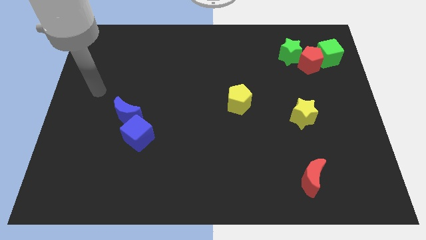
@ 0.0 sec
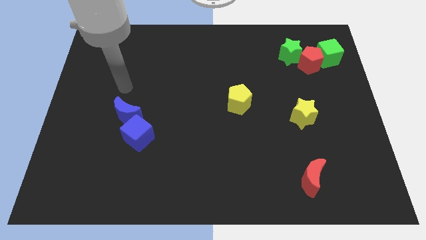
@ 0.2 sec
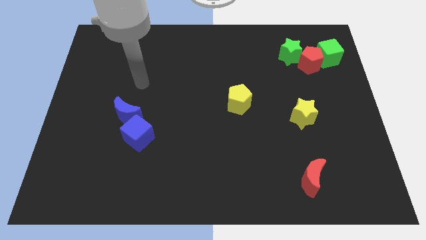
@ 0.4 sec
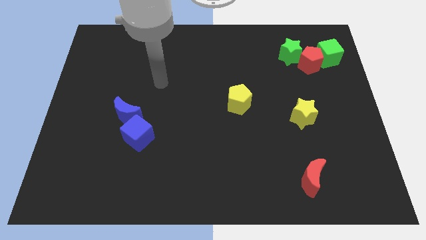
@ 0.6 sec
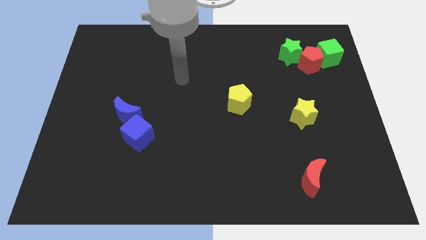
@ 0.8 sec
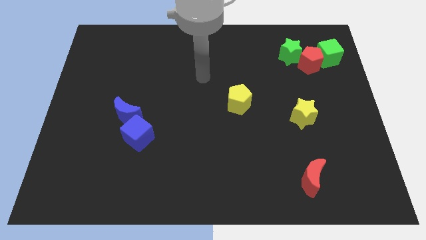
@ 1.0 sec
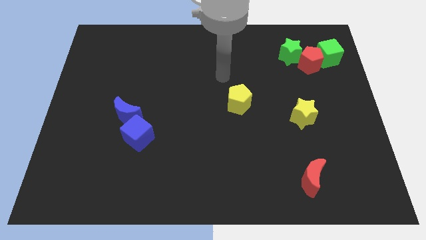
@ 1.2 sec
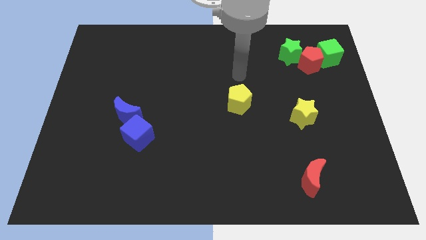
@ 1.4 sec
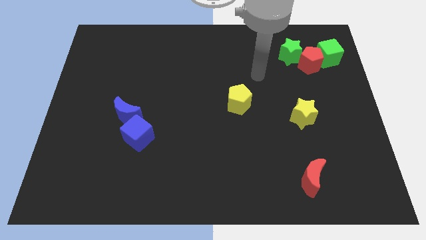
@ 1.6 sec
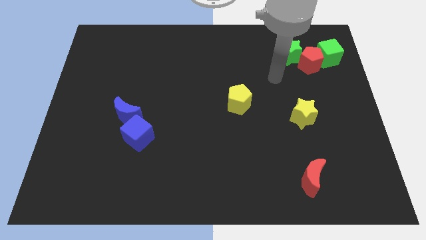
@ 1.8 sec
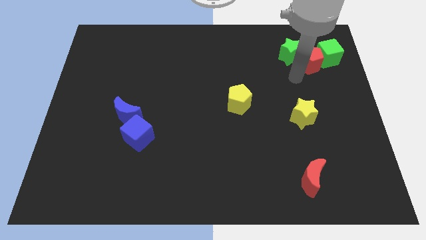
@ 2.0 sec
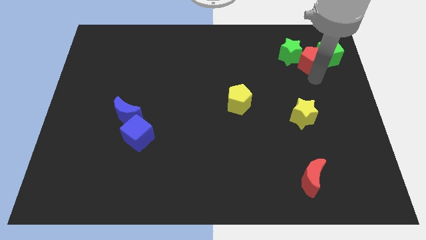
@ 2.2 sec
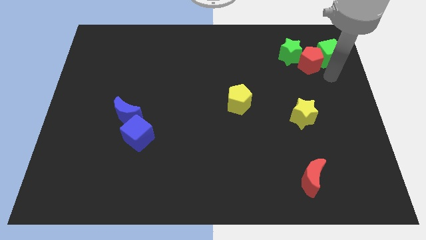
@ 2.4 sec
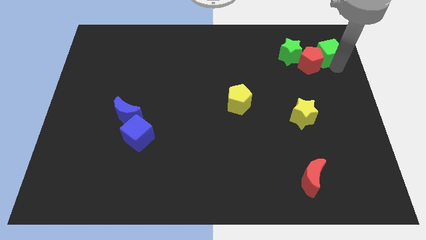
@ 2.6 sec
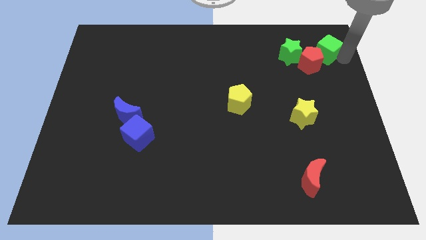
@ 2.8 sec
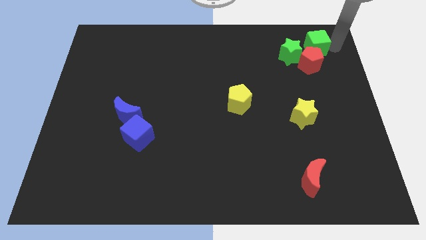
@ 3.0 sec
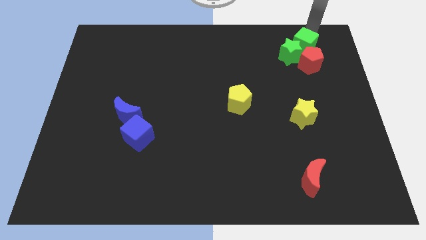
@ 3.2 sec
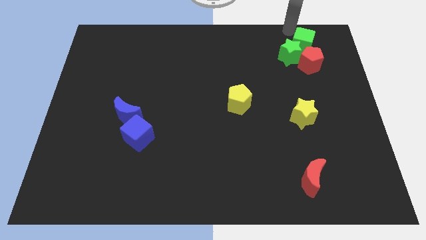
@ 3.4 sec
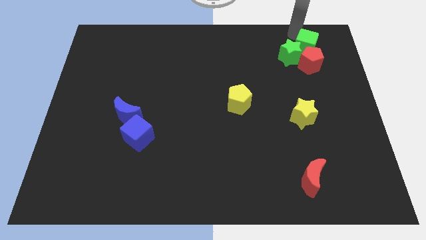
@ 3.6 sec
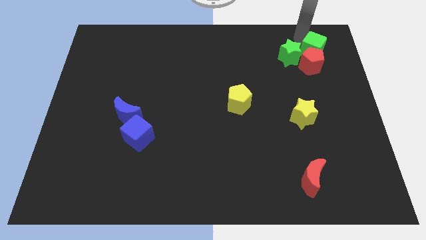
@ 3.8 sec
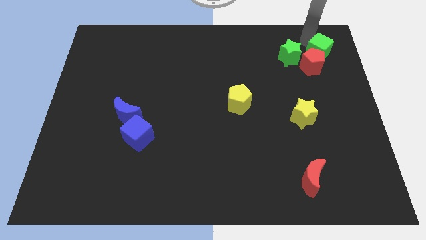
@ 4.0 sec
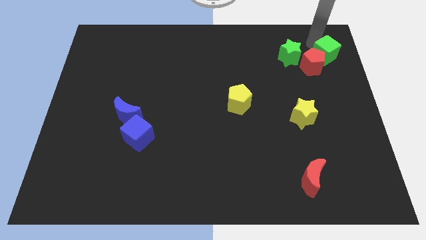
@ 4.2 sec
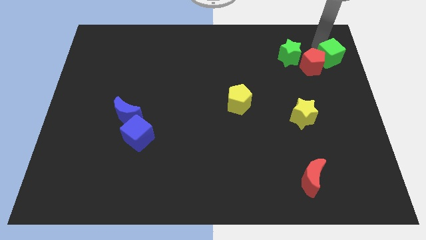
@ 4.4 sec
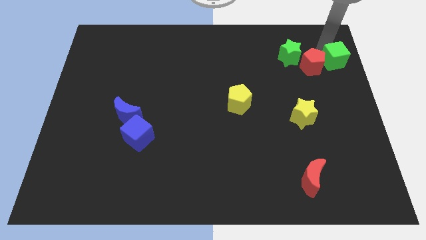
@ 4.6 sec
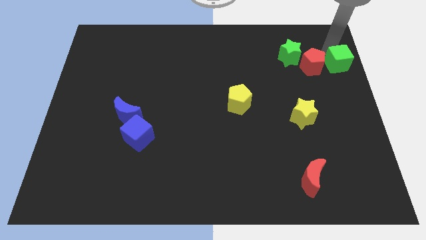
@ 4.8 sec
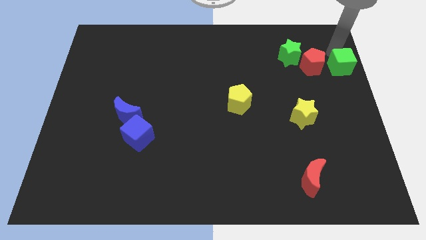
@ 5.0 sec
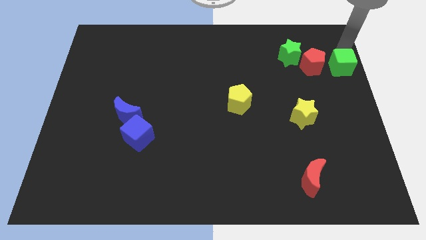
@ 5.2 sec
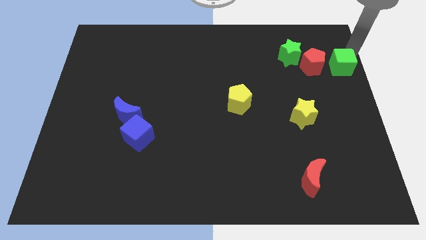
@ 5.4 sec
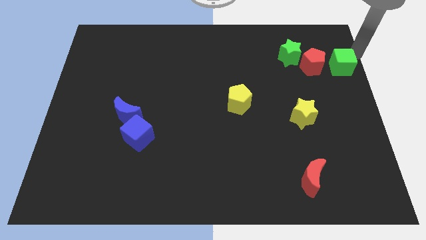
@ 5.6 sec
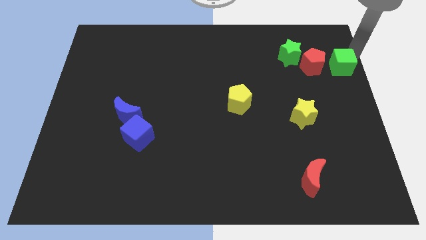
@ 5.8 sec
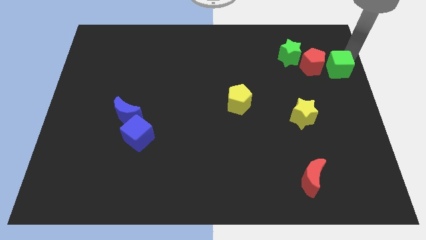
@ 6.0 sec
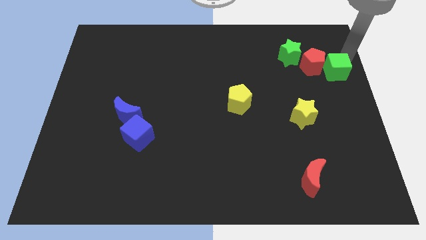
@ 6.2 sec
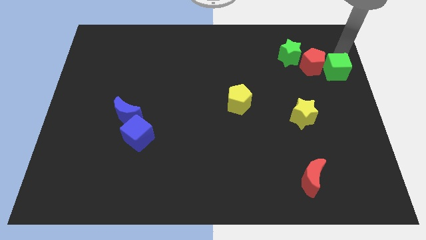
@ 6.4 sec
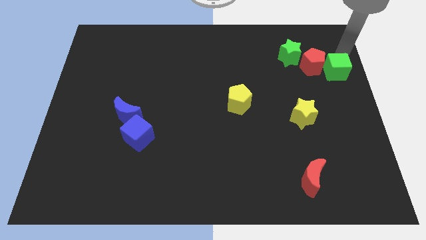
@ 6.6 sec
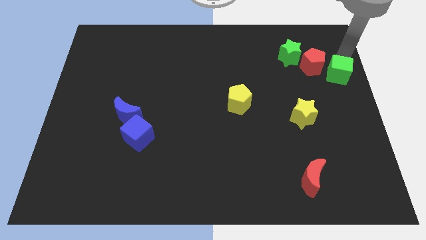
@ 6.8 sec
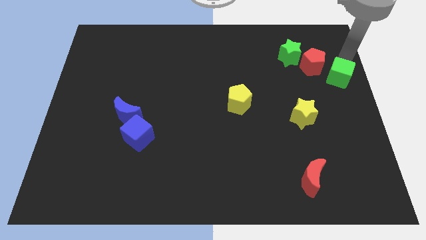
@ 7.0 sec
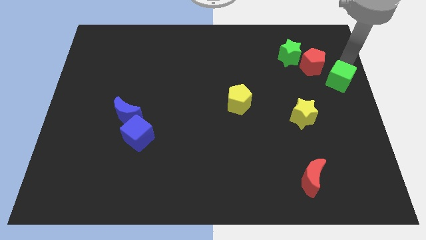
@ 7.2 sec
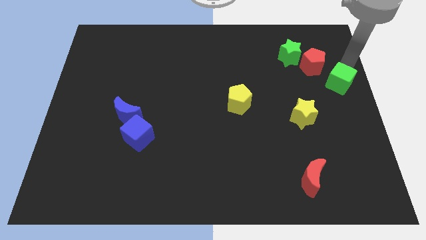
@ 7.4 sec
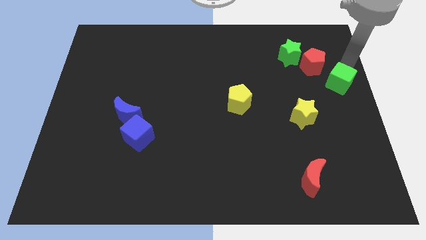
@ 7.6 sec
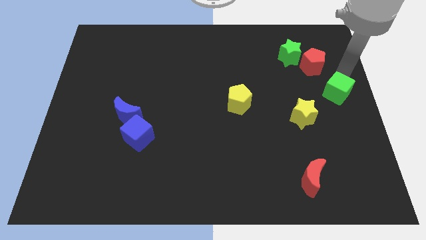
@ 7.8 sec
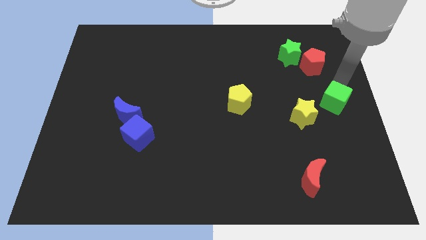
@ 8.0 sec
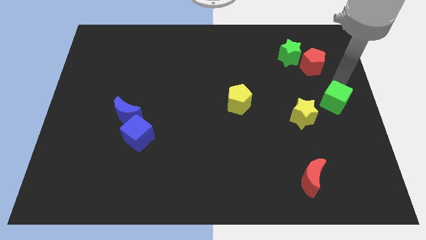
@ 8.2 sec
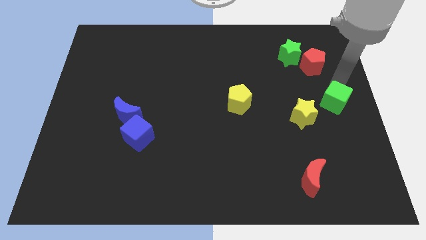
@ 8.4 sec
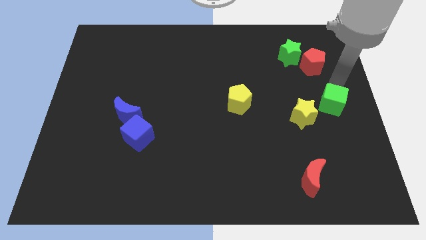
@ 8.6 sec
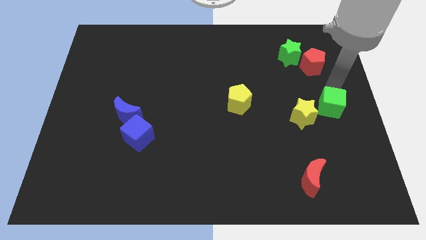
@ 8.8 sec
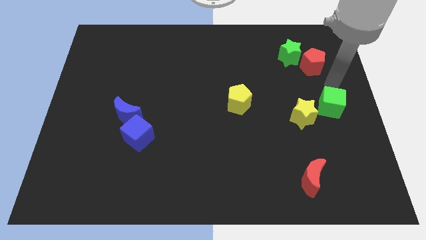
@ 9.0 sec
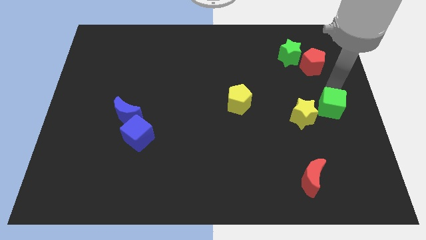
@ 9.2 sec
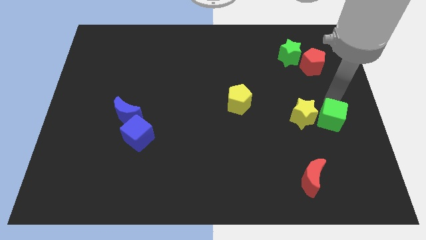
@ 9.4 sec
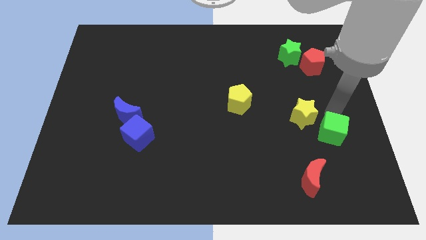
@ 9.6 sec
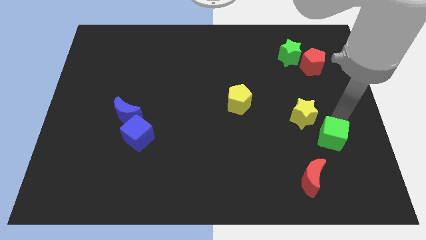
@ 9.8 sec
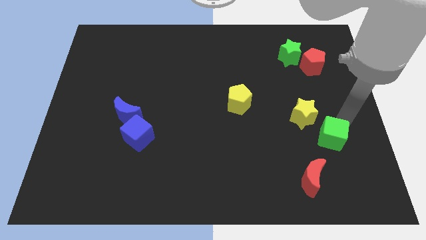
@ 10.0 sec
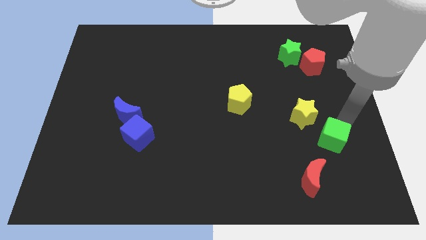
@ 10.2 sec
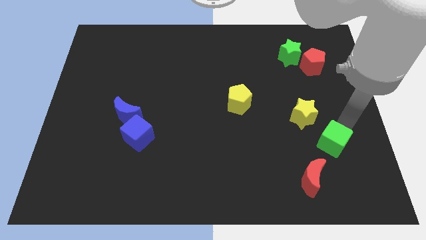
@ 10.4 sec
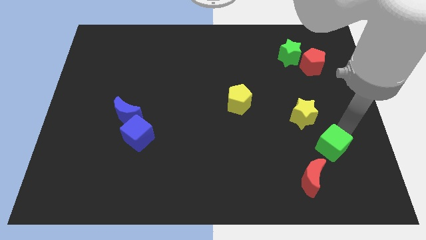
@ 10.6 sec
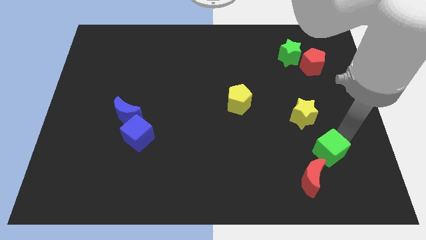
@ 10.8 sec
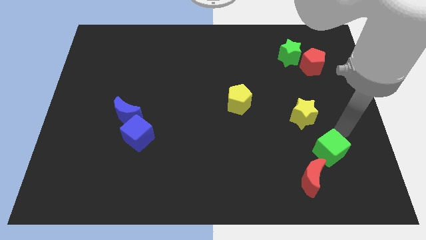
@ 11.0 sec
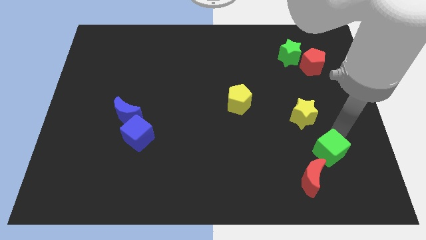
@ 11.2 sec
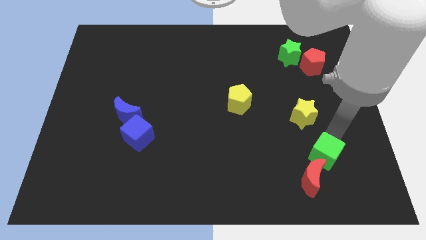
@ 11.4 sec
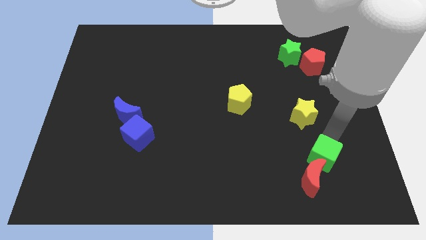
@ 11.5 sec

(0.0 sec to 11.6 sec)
move the green cube close to the red moon
